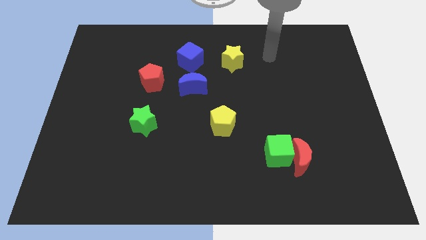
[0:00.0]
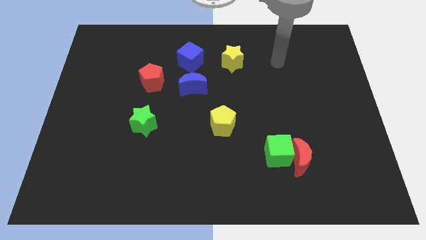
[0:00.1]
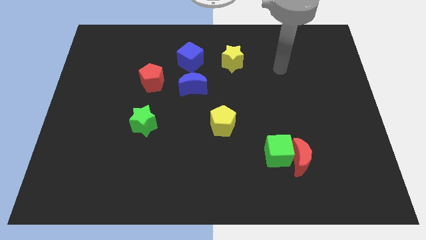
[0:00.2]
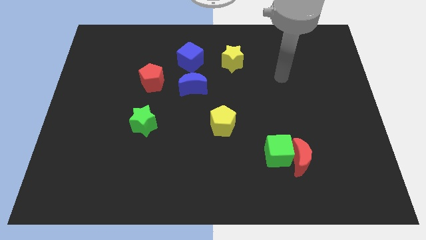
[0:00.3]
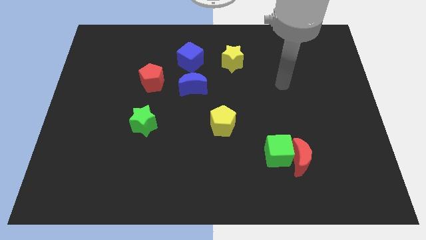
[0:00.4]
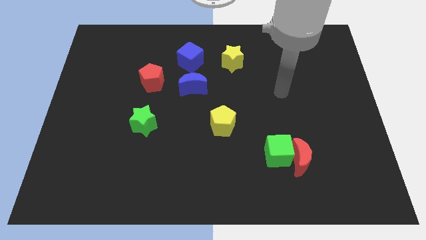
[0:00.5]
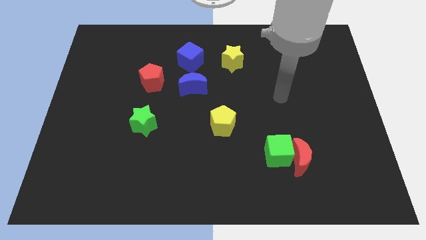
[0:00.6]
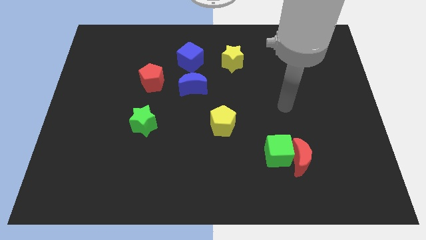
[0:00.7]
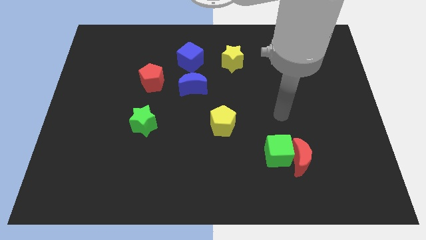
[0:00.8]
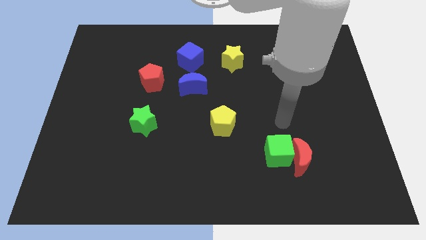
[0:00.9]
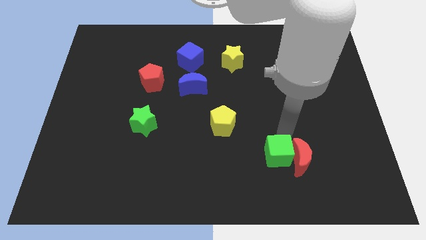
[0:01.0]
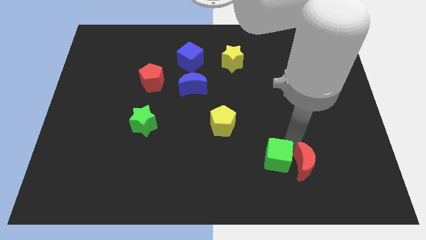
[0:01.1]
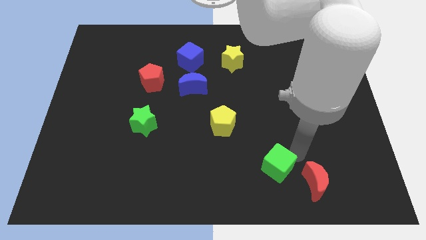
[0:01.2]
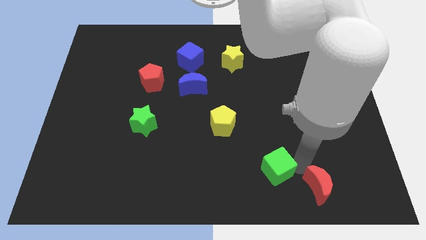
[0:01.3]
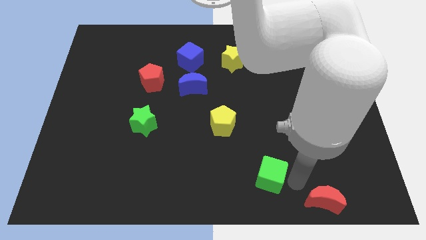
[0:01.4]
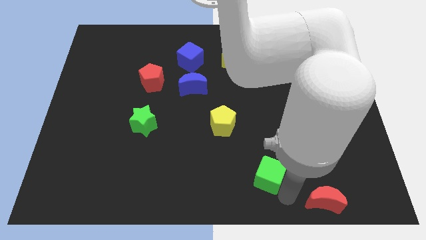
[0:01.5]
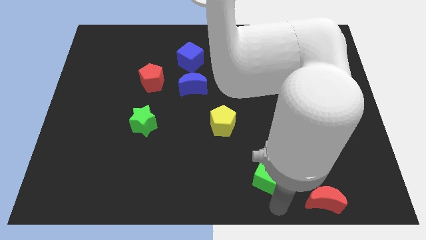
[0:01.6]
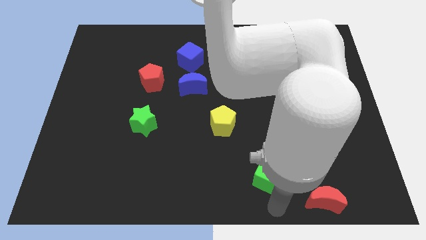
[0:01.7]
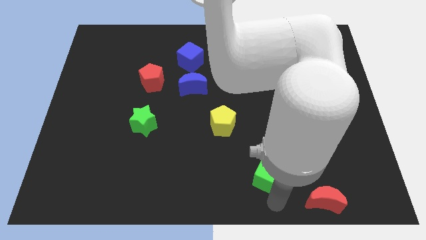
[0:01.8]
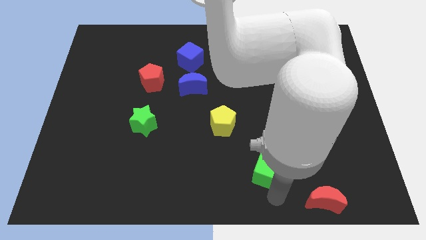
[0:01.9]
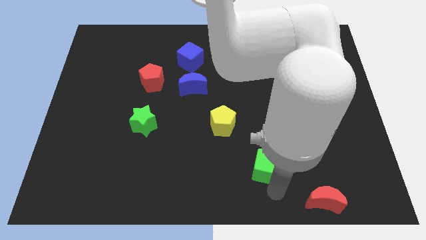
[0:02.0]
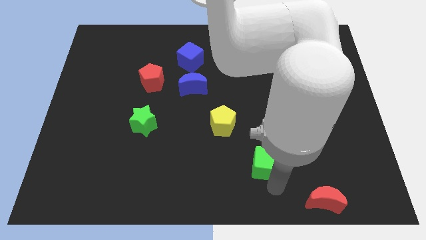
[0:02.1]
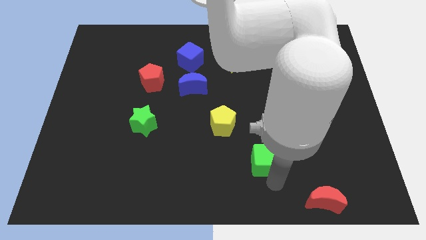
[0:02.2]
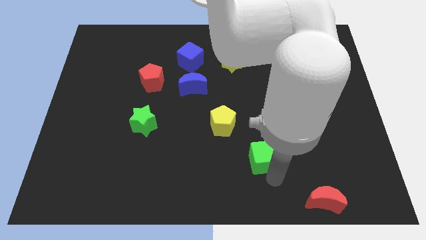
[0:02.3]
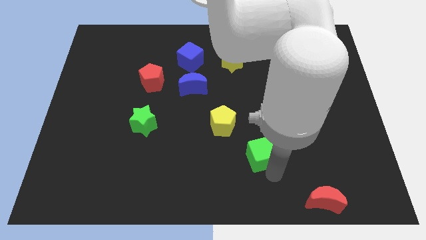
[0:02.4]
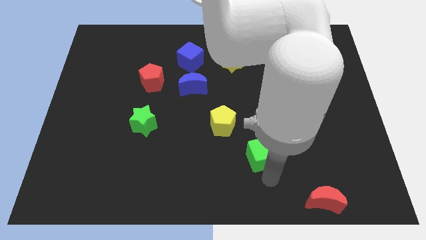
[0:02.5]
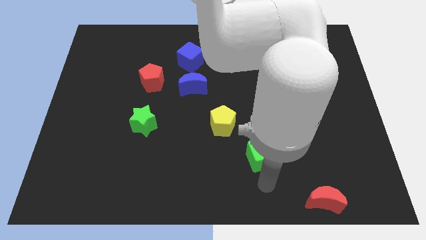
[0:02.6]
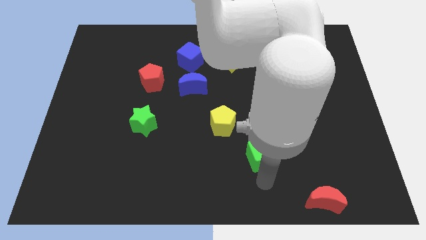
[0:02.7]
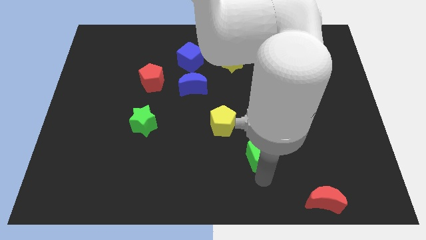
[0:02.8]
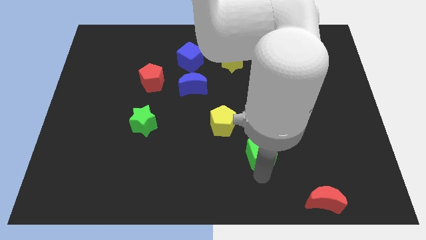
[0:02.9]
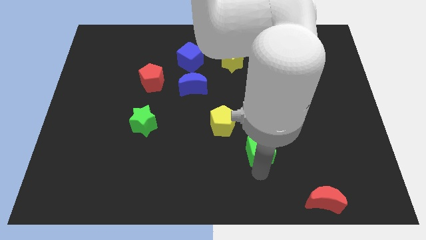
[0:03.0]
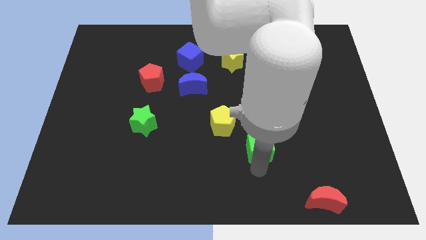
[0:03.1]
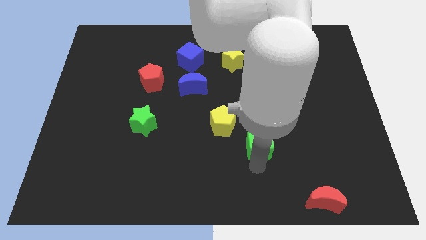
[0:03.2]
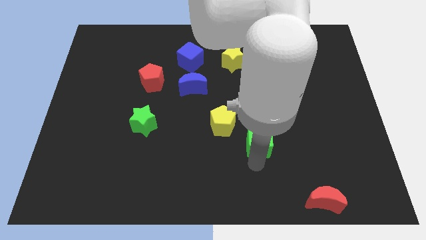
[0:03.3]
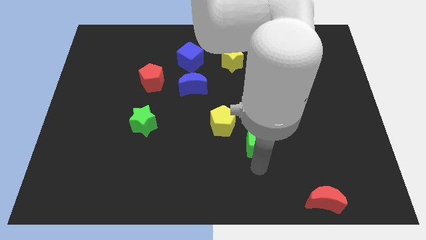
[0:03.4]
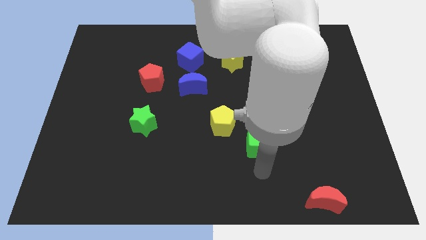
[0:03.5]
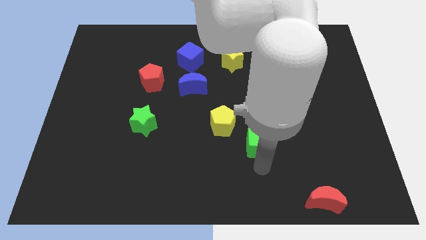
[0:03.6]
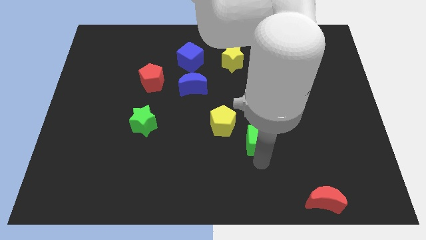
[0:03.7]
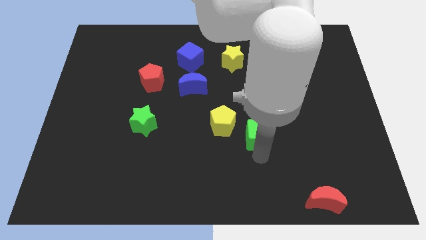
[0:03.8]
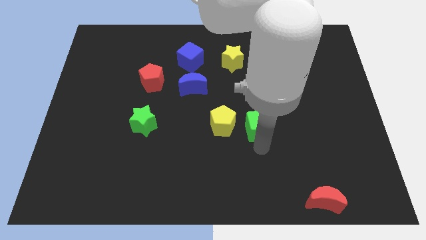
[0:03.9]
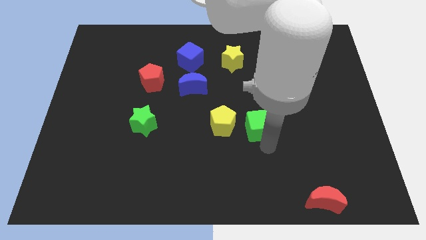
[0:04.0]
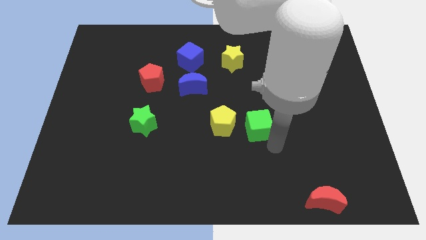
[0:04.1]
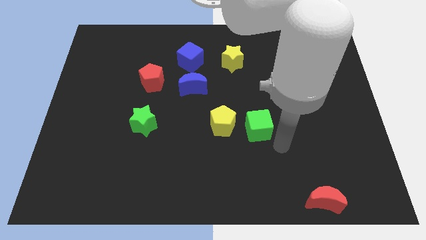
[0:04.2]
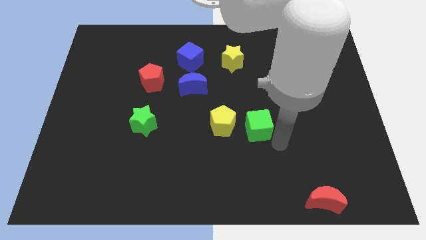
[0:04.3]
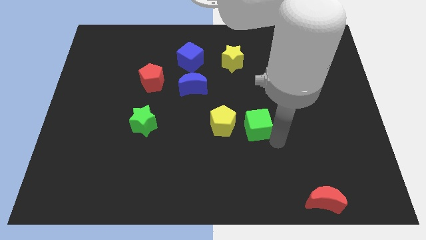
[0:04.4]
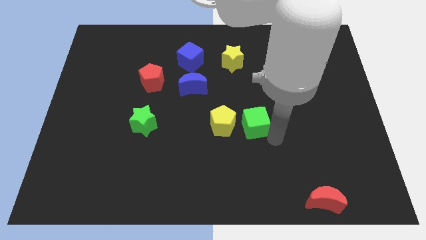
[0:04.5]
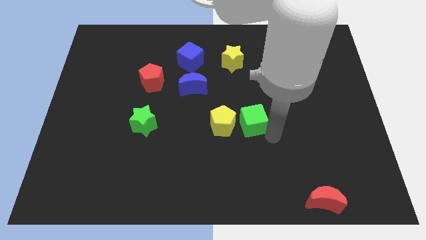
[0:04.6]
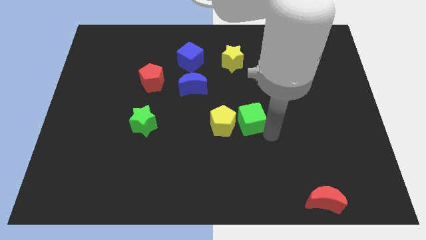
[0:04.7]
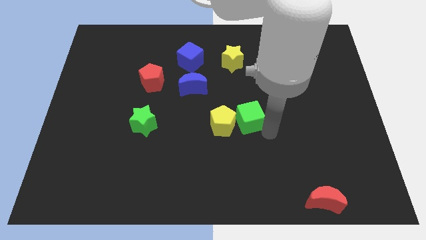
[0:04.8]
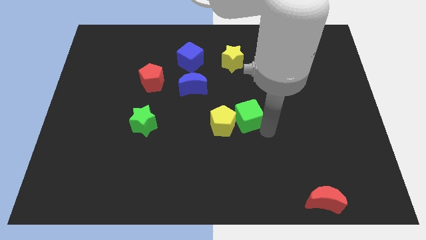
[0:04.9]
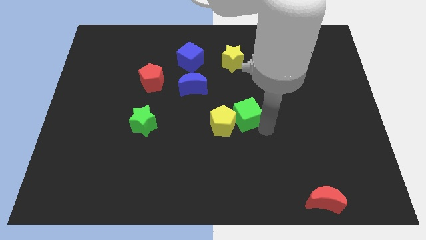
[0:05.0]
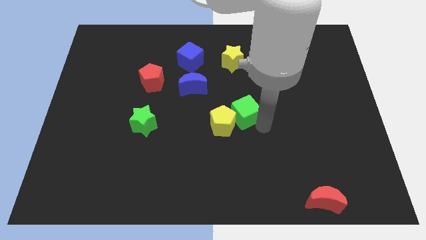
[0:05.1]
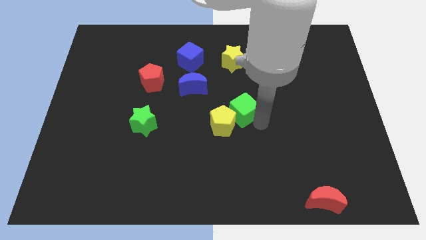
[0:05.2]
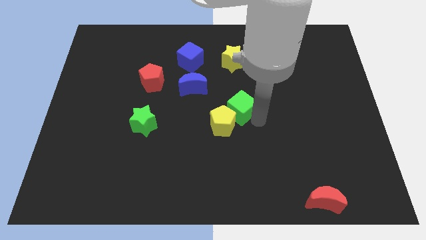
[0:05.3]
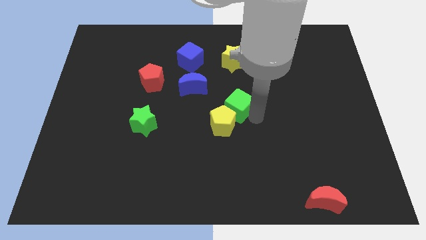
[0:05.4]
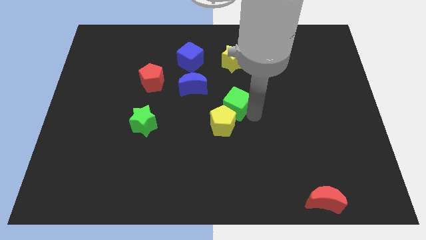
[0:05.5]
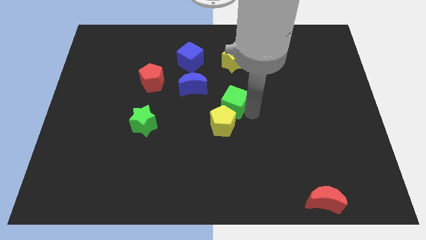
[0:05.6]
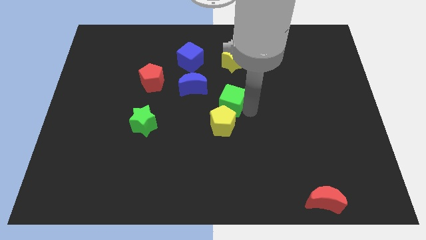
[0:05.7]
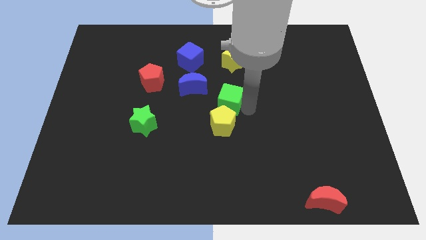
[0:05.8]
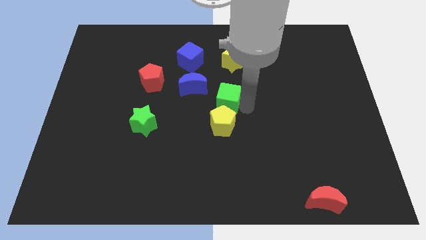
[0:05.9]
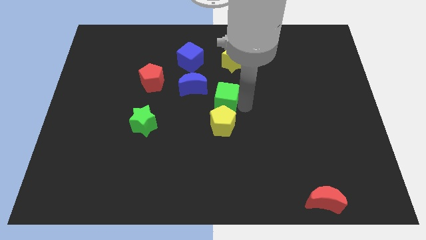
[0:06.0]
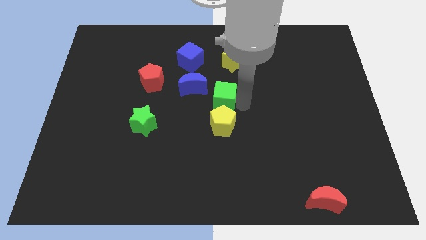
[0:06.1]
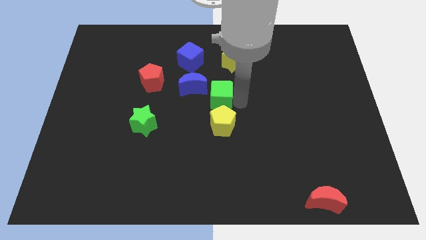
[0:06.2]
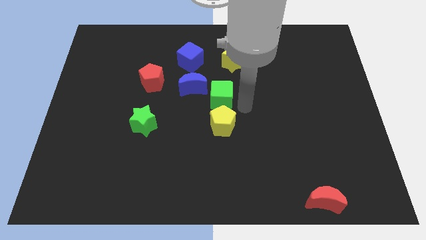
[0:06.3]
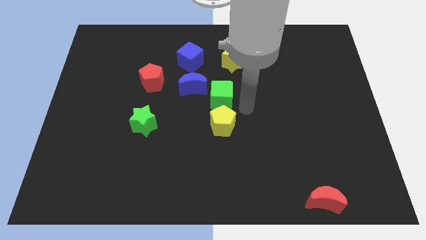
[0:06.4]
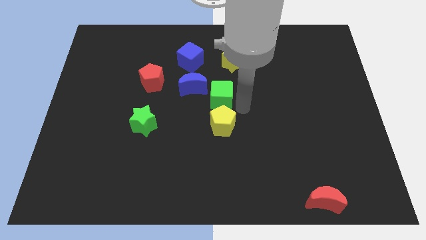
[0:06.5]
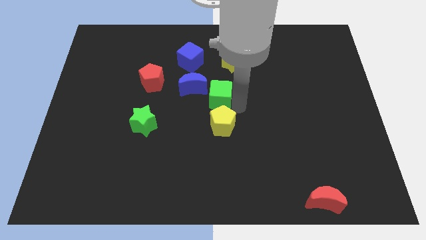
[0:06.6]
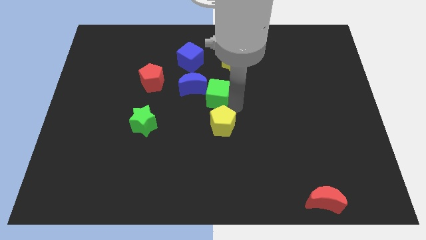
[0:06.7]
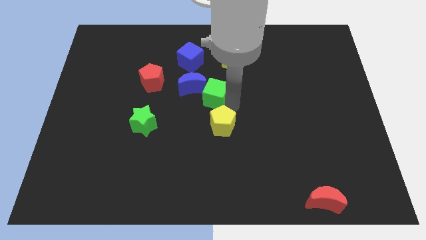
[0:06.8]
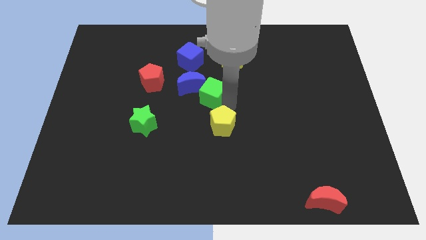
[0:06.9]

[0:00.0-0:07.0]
slide the green cube to the blue moon

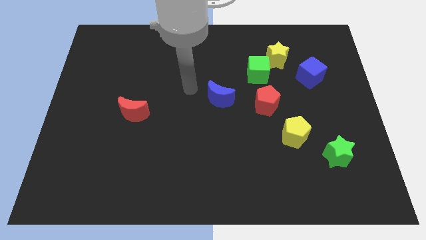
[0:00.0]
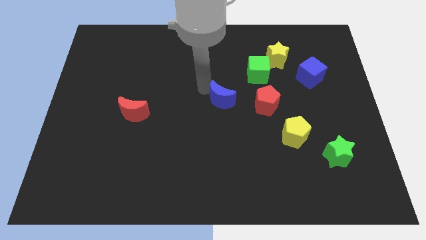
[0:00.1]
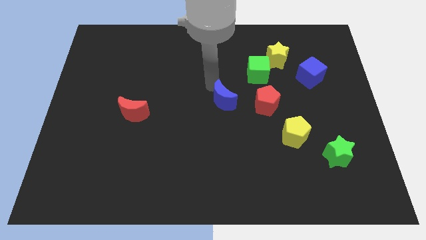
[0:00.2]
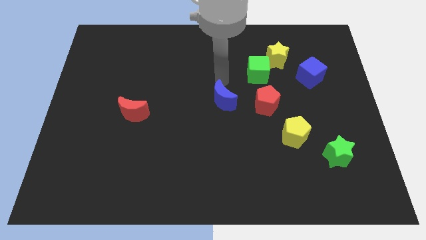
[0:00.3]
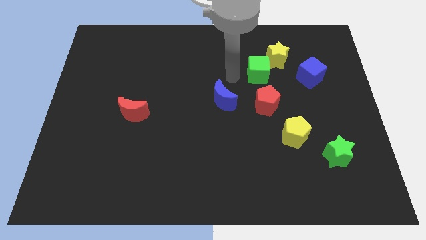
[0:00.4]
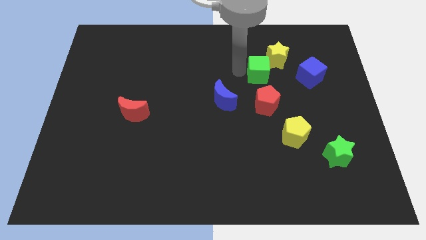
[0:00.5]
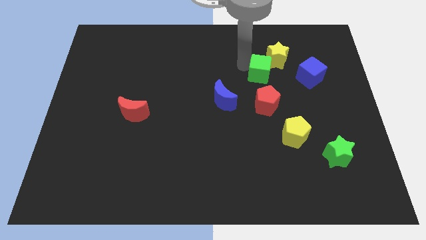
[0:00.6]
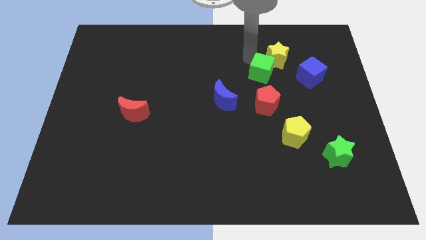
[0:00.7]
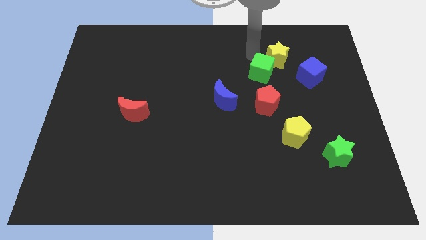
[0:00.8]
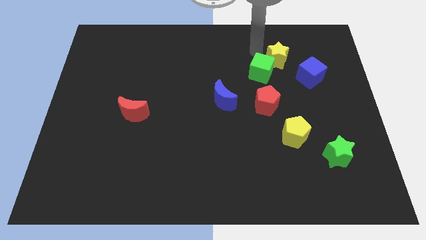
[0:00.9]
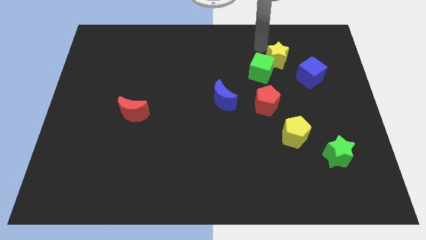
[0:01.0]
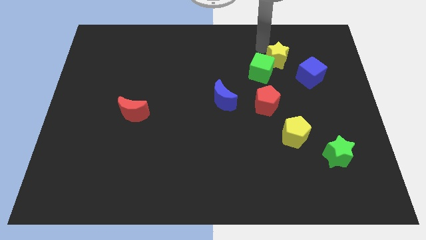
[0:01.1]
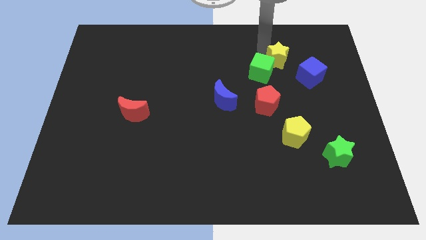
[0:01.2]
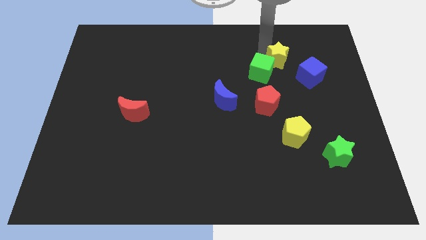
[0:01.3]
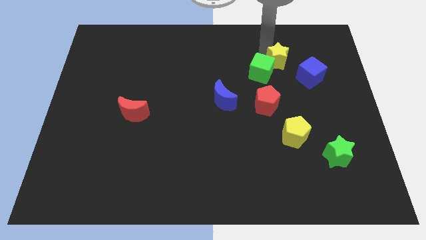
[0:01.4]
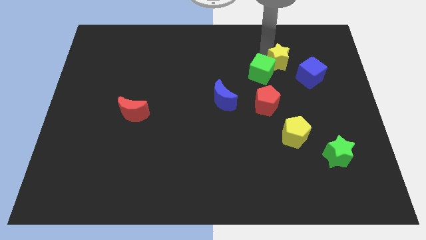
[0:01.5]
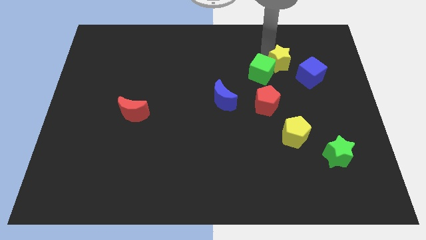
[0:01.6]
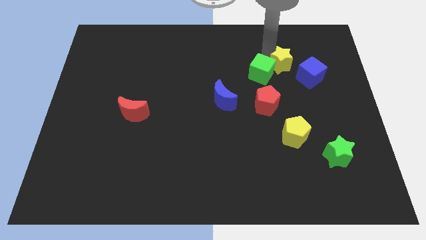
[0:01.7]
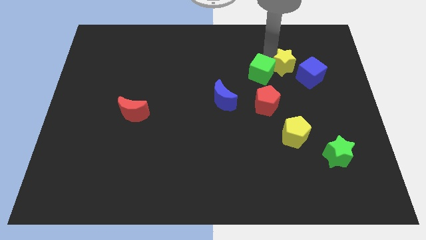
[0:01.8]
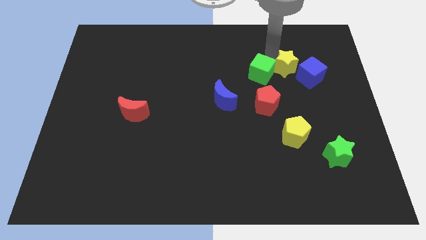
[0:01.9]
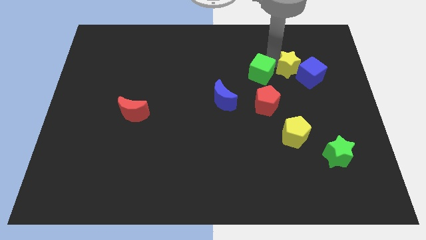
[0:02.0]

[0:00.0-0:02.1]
slide the yellow star to the blue cube
